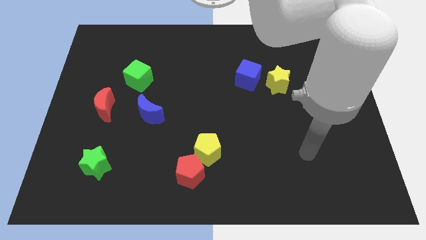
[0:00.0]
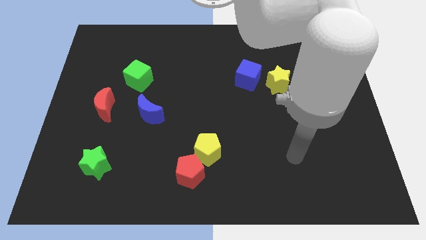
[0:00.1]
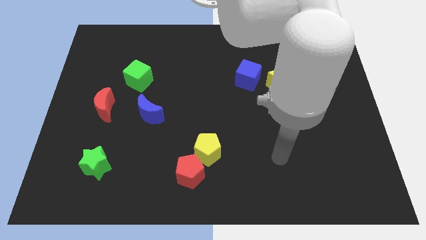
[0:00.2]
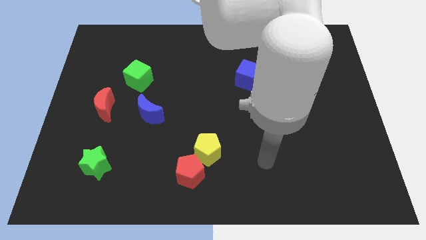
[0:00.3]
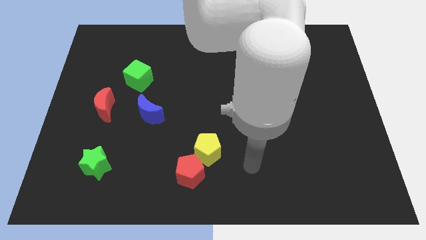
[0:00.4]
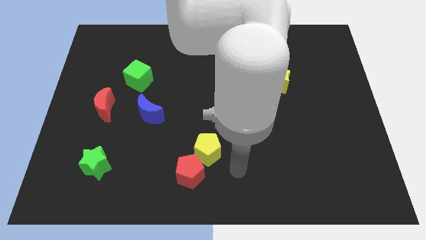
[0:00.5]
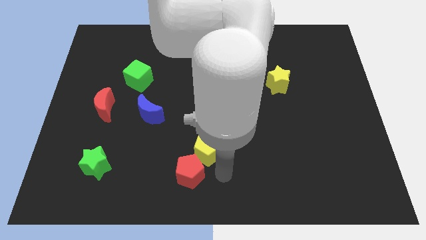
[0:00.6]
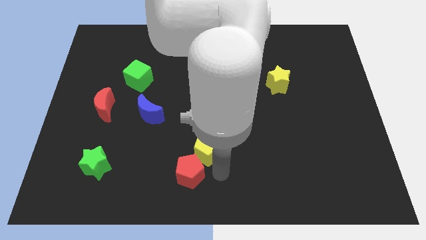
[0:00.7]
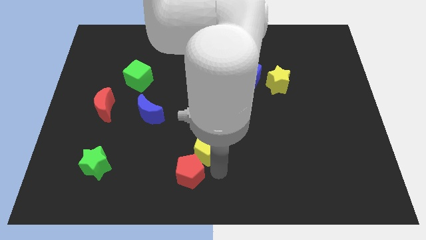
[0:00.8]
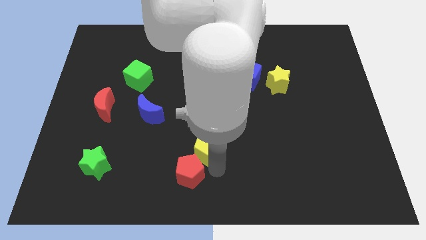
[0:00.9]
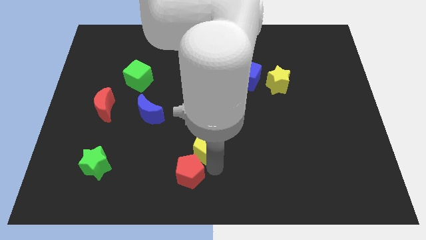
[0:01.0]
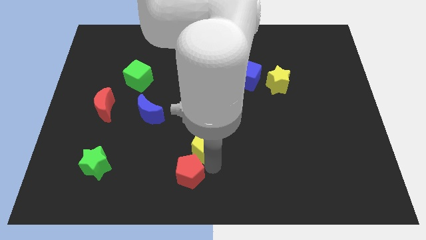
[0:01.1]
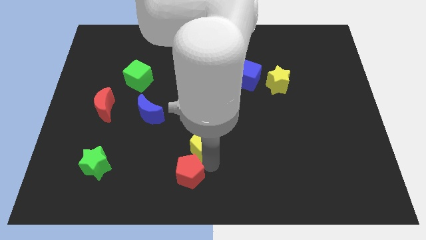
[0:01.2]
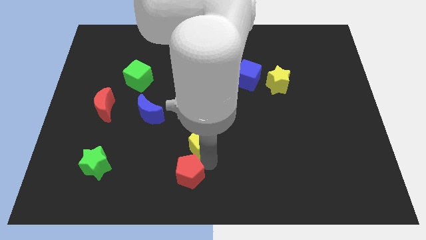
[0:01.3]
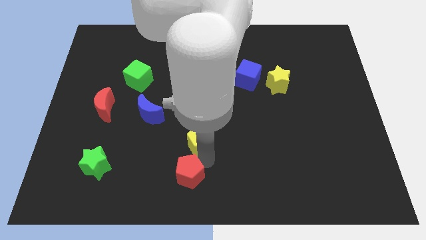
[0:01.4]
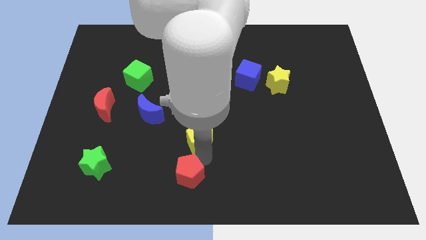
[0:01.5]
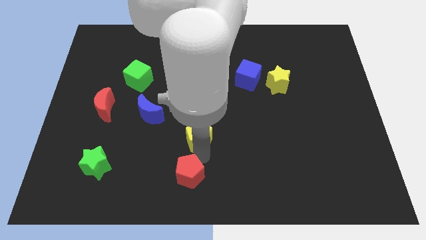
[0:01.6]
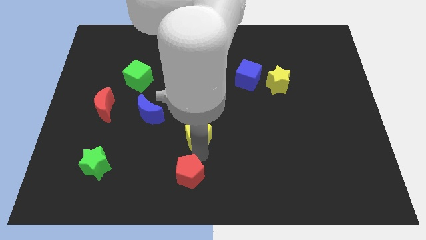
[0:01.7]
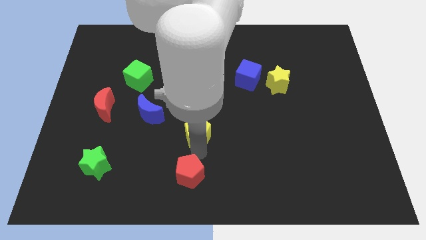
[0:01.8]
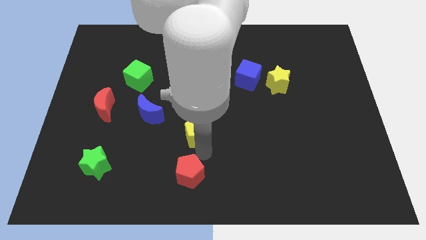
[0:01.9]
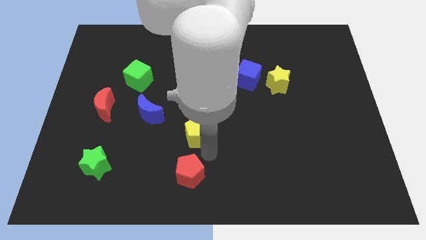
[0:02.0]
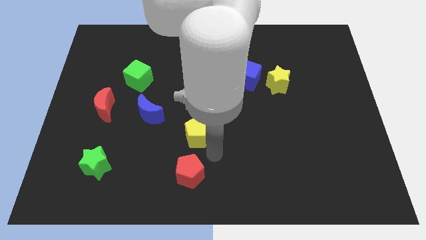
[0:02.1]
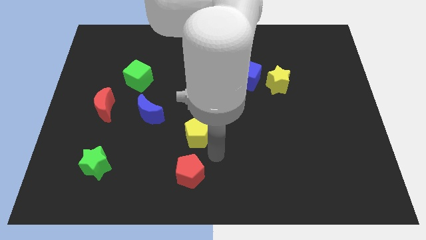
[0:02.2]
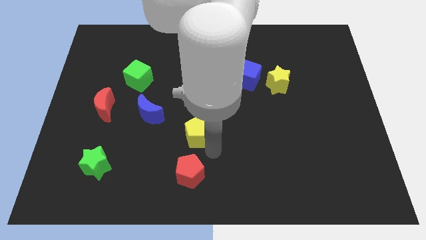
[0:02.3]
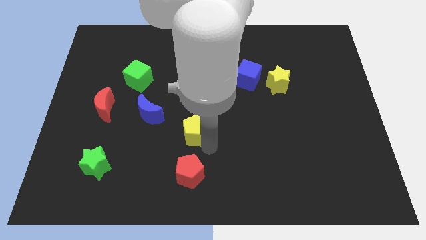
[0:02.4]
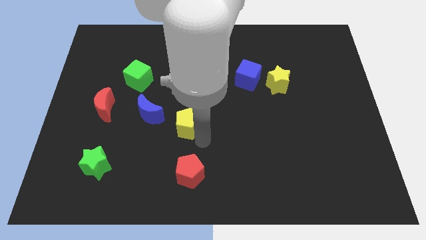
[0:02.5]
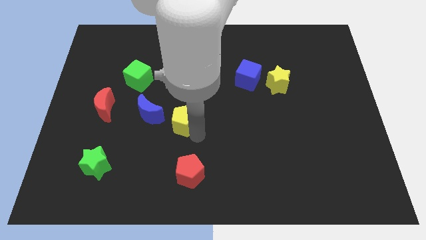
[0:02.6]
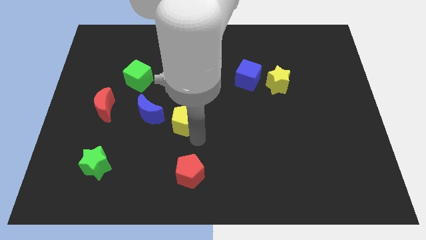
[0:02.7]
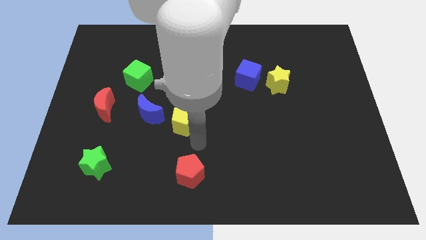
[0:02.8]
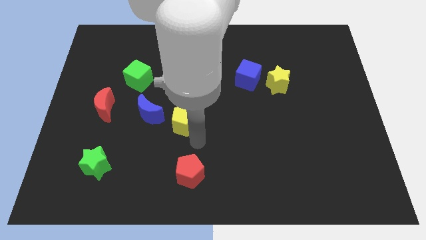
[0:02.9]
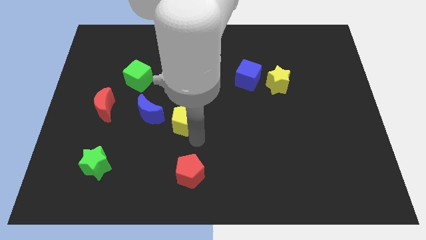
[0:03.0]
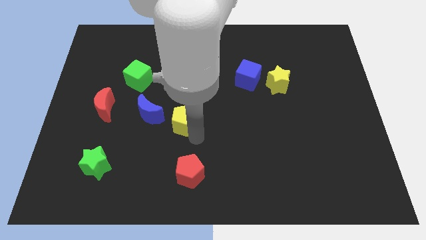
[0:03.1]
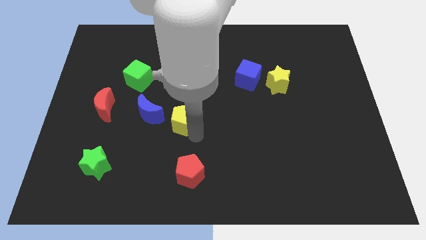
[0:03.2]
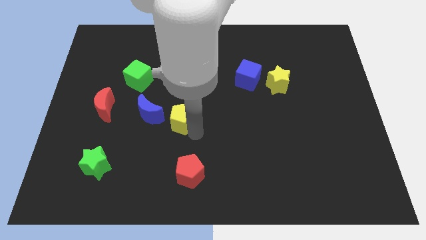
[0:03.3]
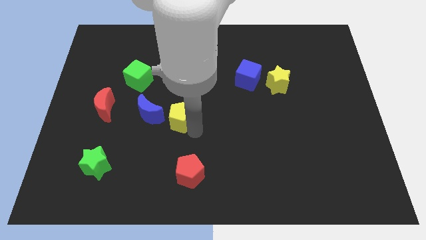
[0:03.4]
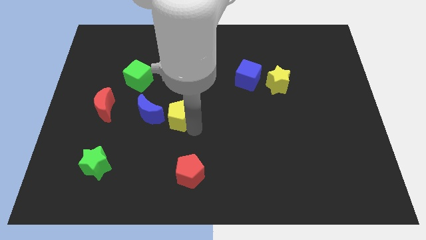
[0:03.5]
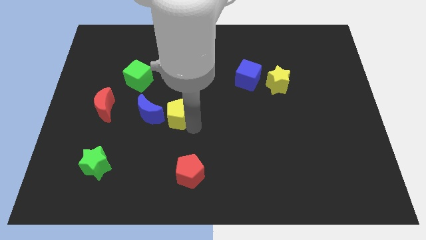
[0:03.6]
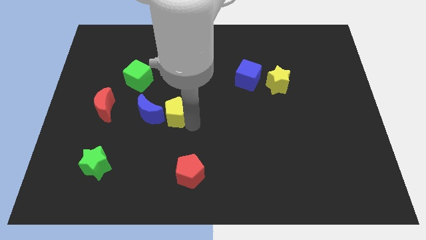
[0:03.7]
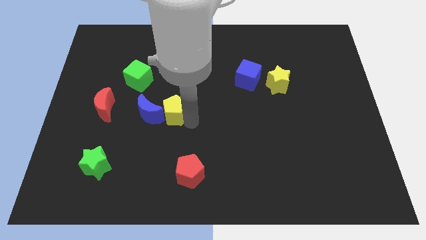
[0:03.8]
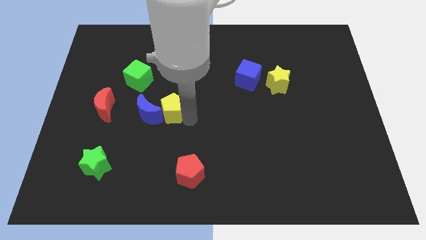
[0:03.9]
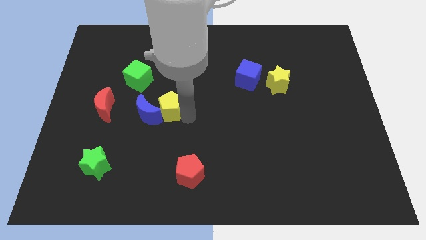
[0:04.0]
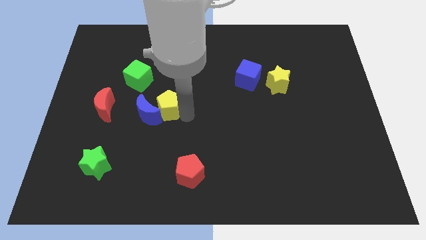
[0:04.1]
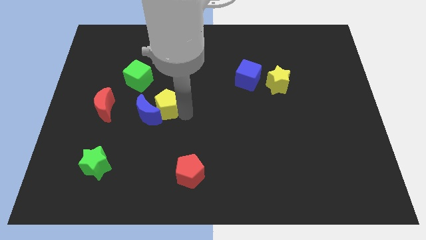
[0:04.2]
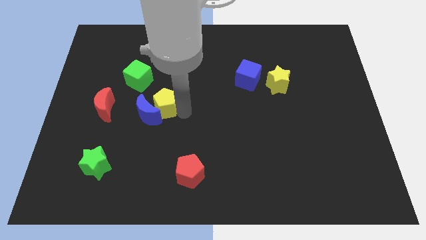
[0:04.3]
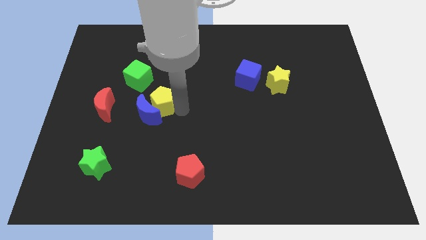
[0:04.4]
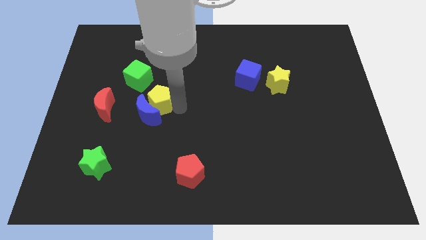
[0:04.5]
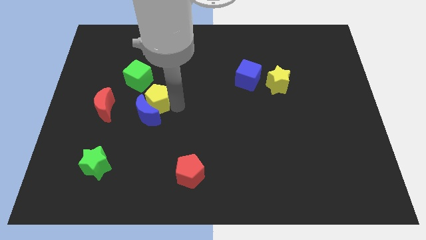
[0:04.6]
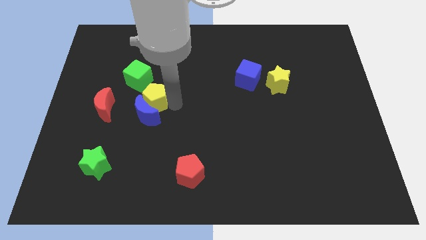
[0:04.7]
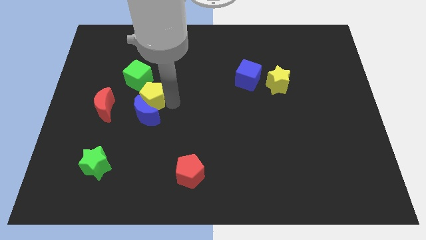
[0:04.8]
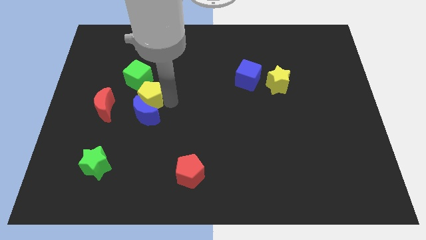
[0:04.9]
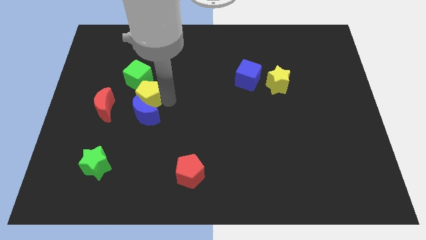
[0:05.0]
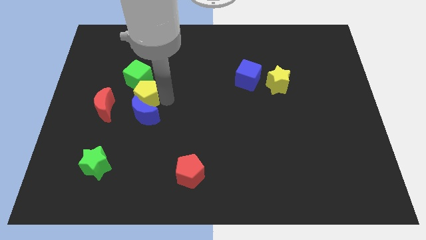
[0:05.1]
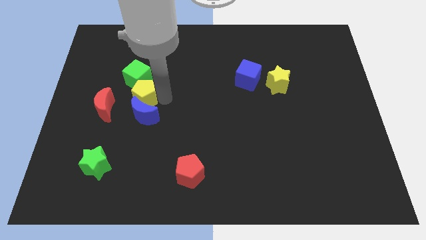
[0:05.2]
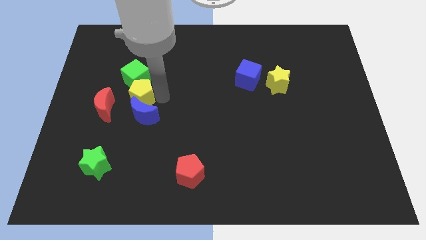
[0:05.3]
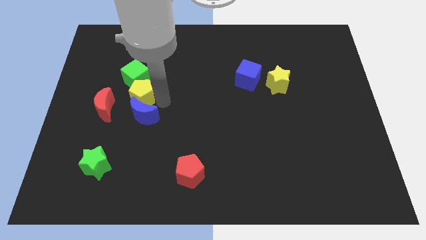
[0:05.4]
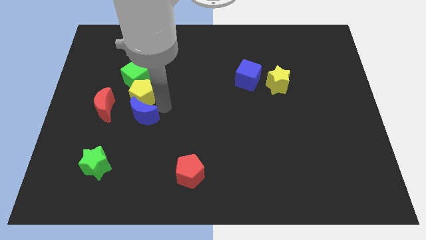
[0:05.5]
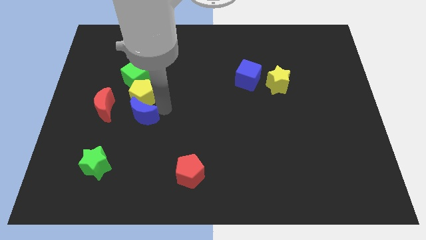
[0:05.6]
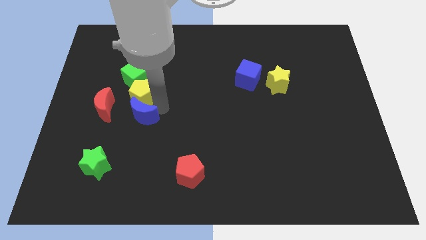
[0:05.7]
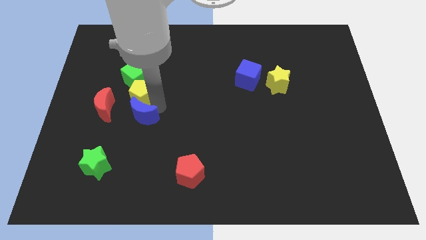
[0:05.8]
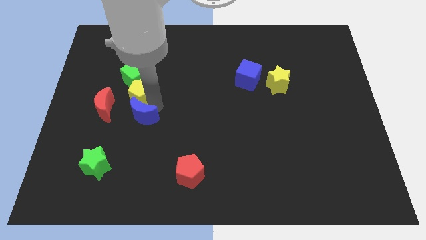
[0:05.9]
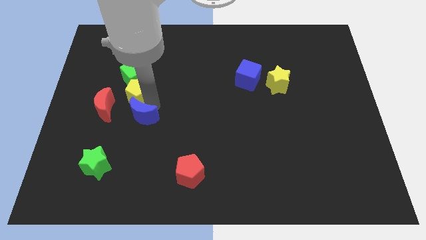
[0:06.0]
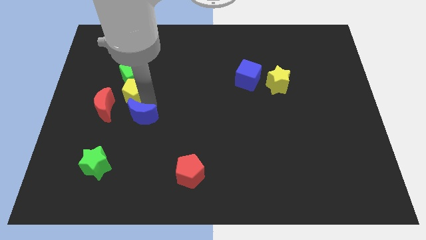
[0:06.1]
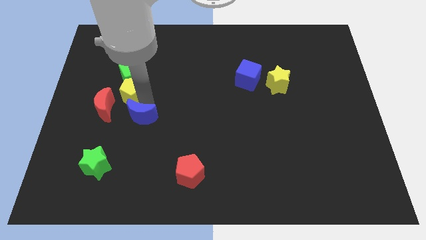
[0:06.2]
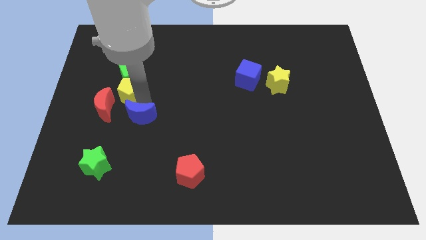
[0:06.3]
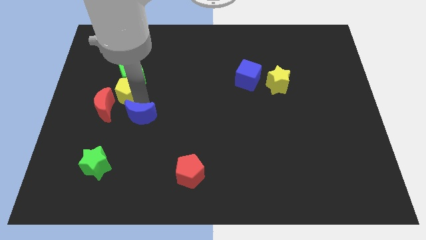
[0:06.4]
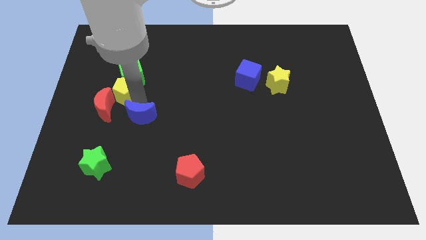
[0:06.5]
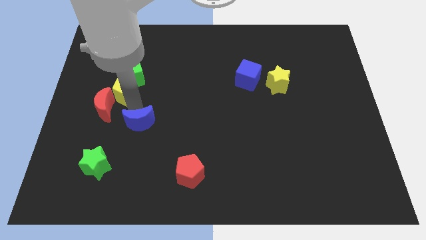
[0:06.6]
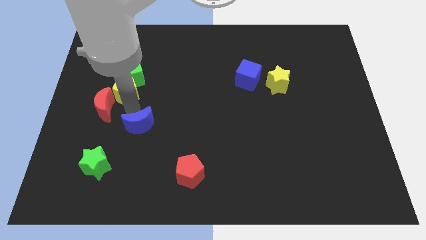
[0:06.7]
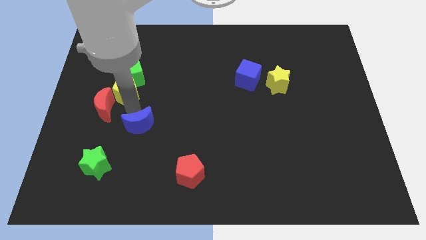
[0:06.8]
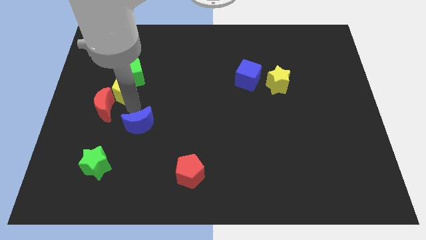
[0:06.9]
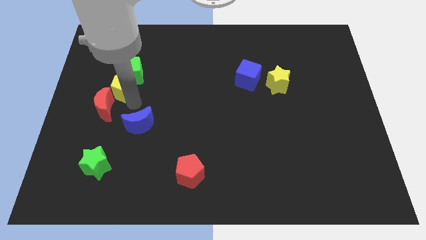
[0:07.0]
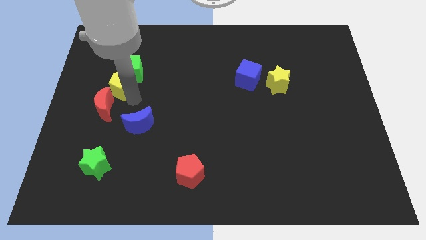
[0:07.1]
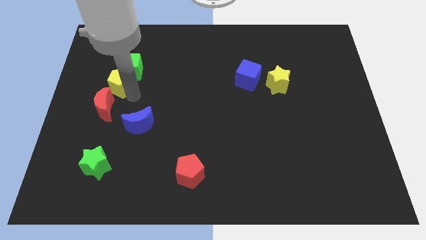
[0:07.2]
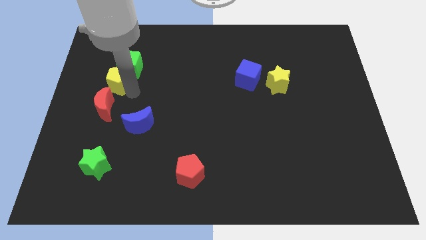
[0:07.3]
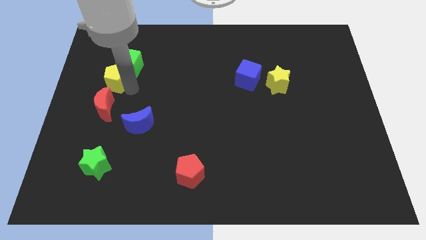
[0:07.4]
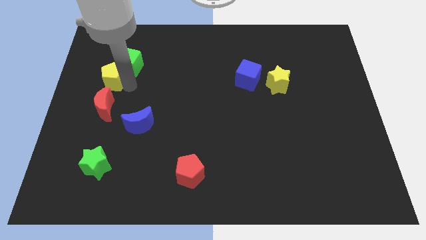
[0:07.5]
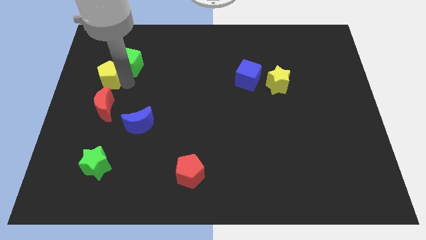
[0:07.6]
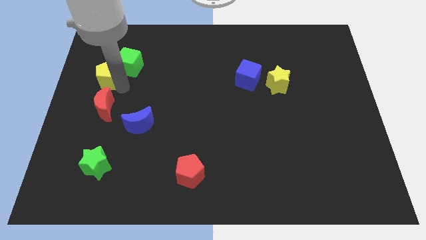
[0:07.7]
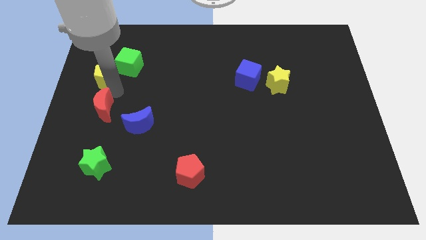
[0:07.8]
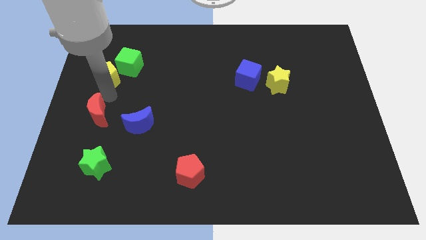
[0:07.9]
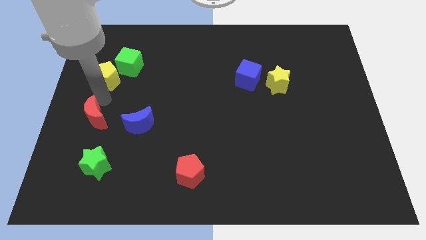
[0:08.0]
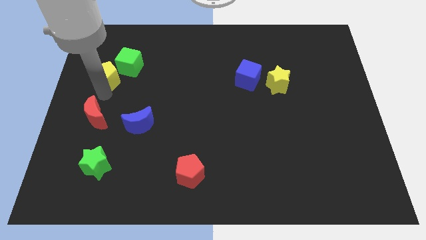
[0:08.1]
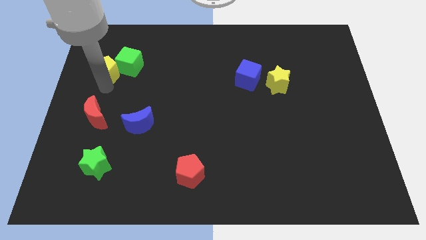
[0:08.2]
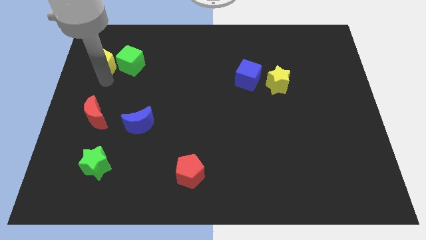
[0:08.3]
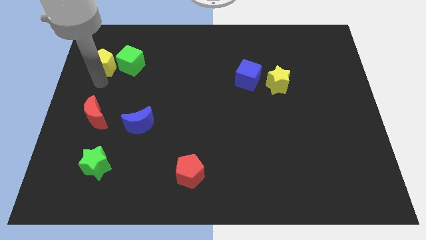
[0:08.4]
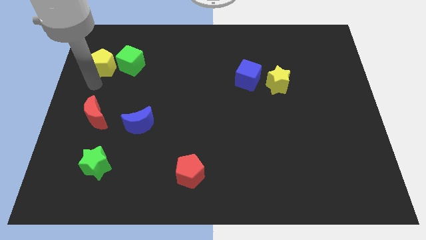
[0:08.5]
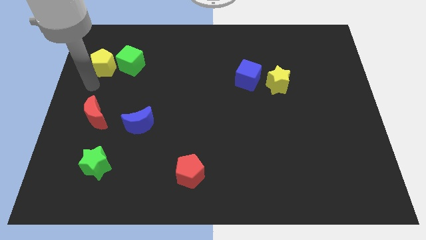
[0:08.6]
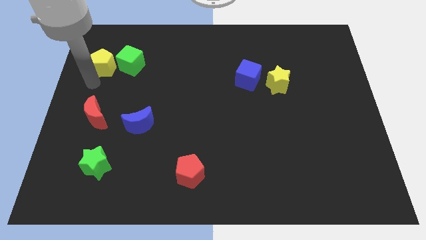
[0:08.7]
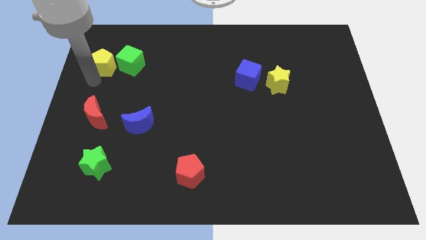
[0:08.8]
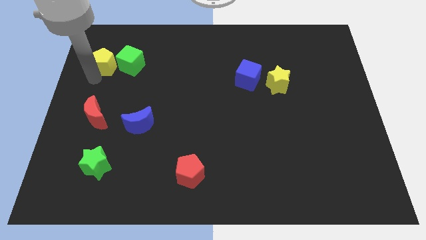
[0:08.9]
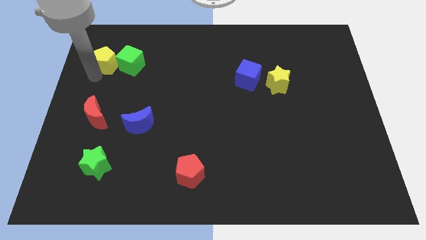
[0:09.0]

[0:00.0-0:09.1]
push the yellow pentagon diagonally up and to the left of the green cube
